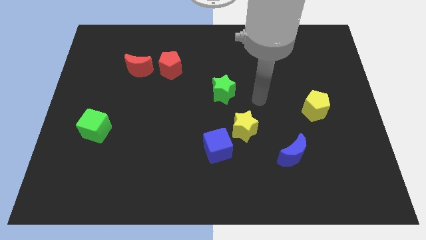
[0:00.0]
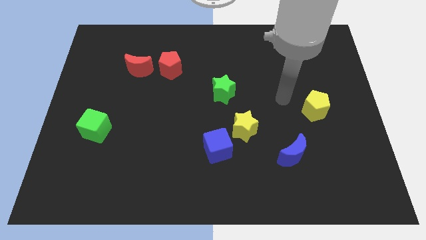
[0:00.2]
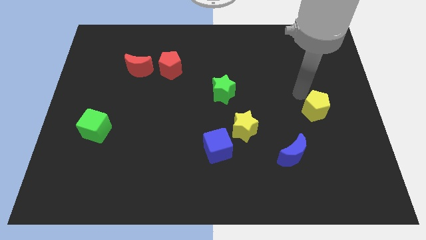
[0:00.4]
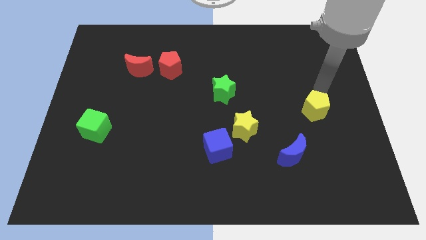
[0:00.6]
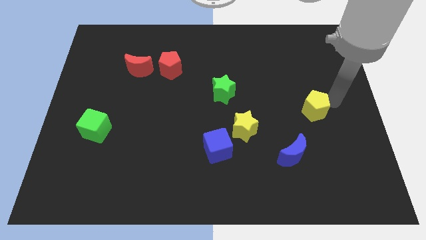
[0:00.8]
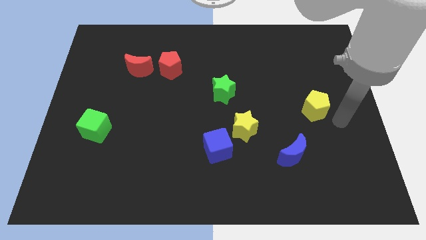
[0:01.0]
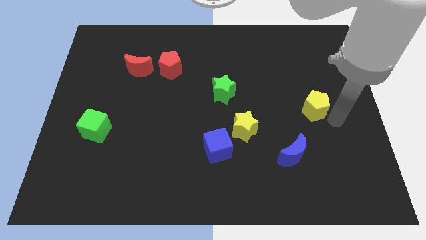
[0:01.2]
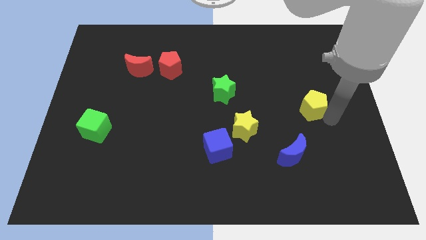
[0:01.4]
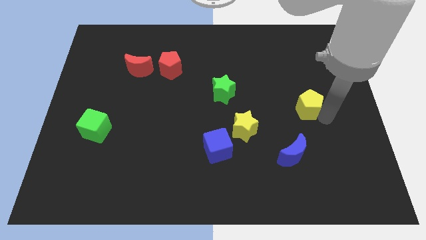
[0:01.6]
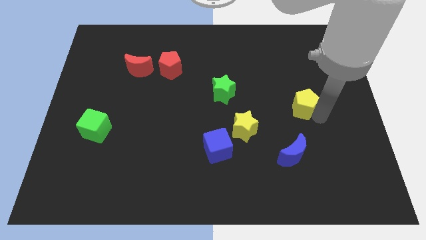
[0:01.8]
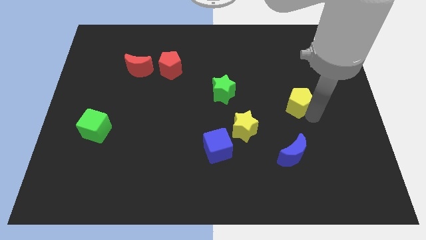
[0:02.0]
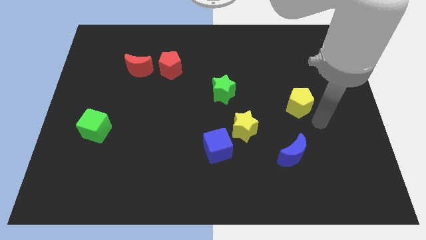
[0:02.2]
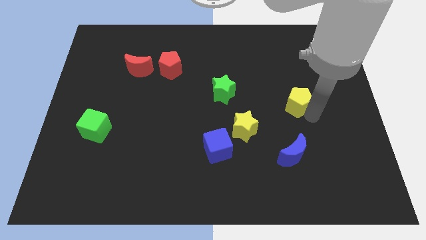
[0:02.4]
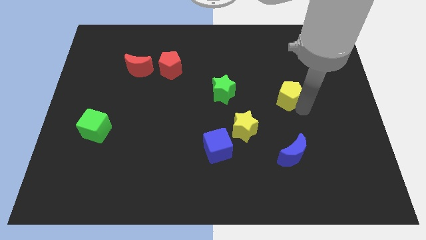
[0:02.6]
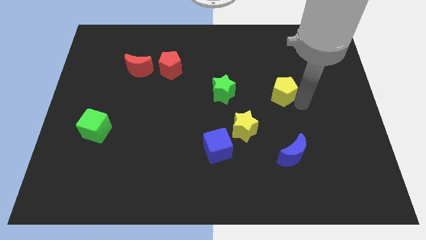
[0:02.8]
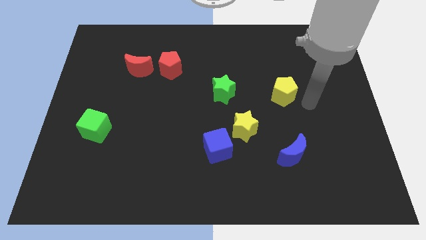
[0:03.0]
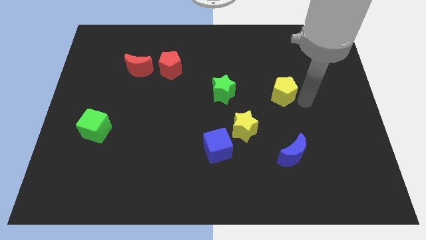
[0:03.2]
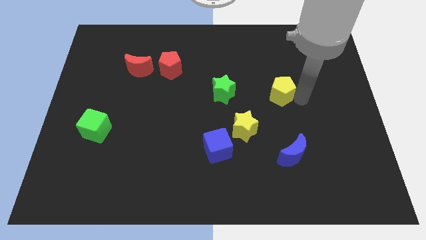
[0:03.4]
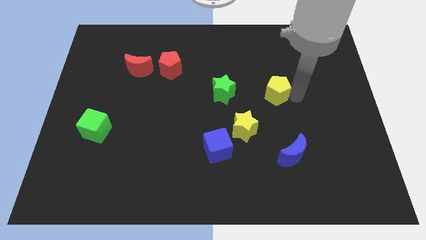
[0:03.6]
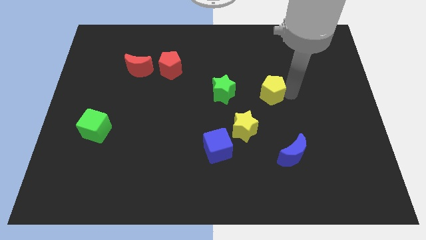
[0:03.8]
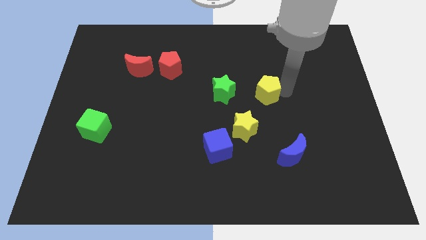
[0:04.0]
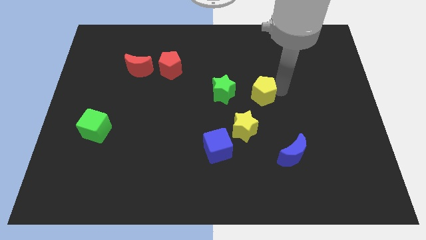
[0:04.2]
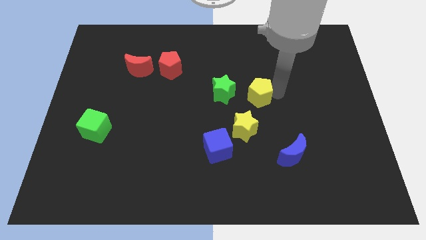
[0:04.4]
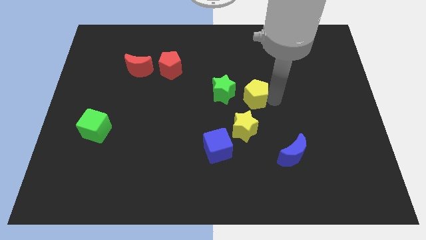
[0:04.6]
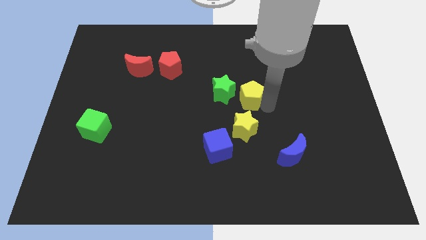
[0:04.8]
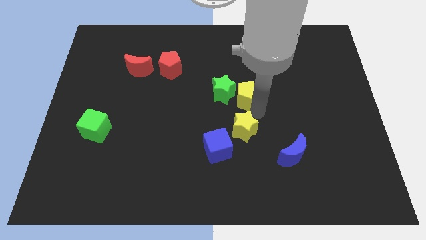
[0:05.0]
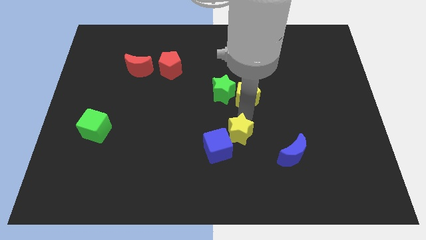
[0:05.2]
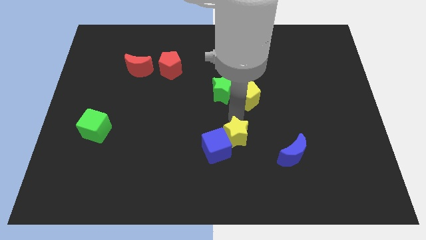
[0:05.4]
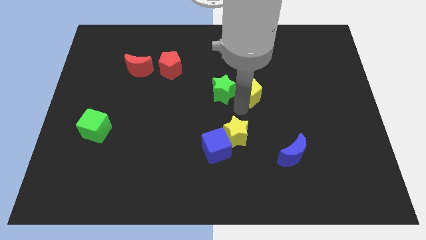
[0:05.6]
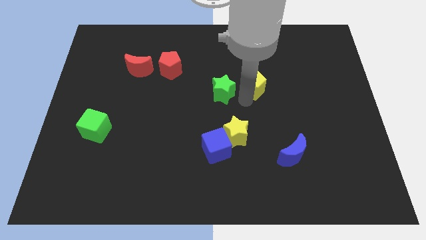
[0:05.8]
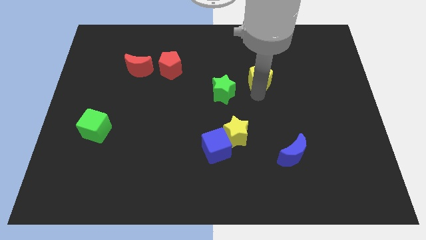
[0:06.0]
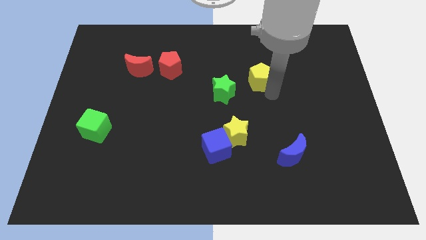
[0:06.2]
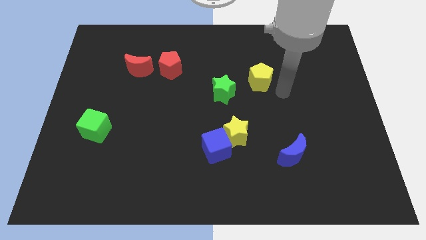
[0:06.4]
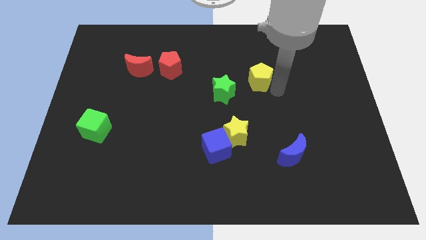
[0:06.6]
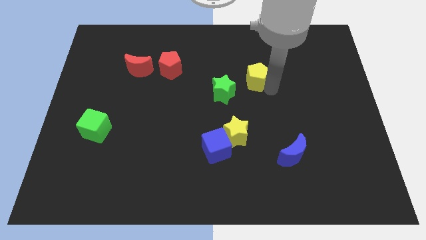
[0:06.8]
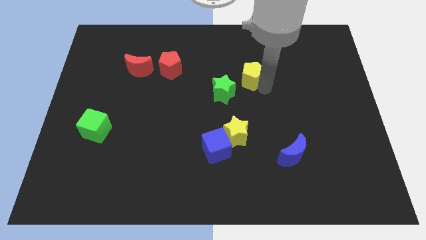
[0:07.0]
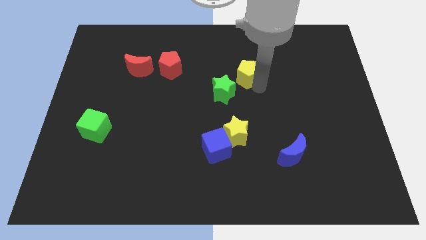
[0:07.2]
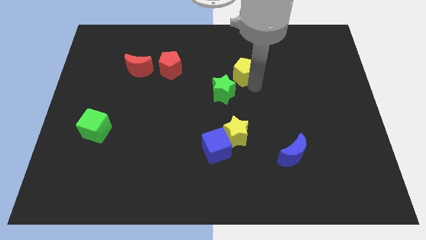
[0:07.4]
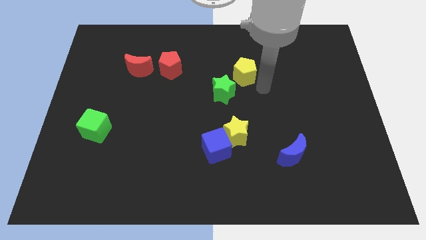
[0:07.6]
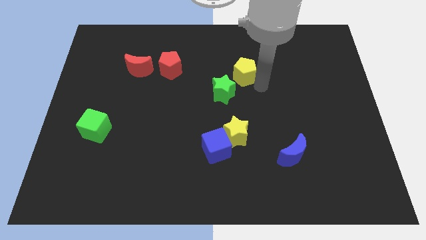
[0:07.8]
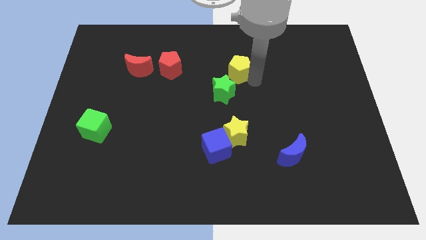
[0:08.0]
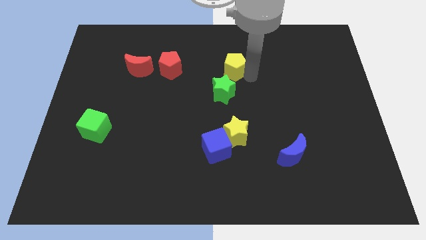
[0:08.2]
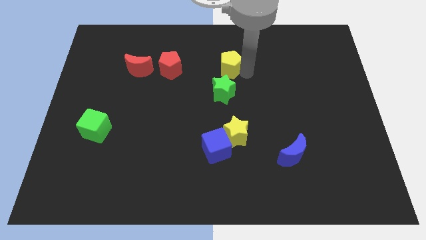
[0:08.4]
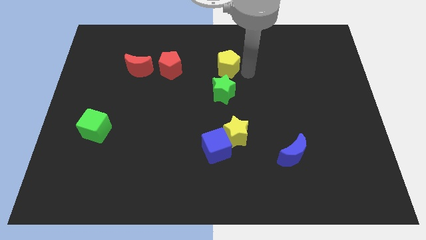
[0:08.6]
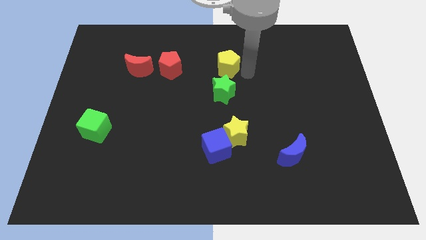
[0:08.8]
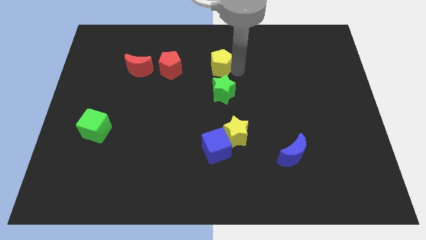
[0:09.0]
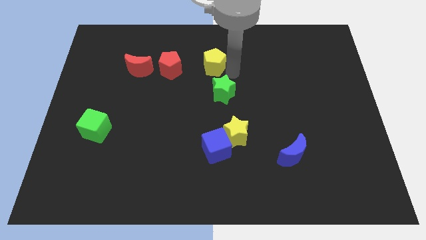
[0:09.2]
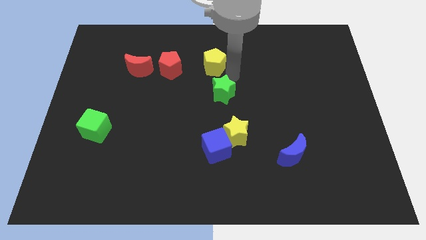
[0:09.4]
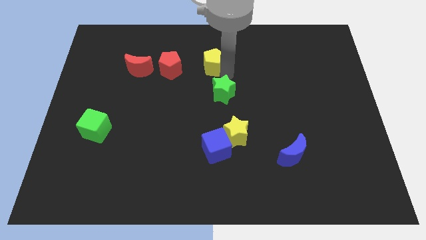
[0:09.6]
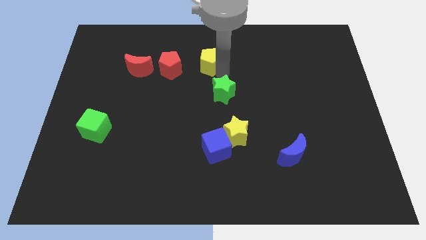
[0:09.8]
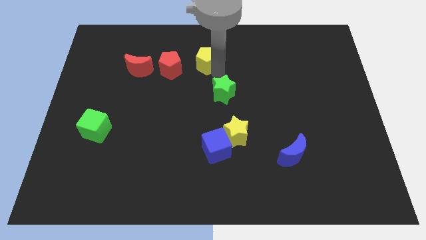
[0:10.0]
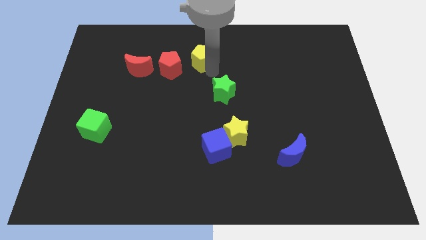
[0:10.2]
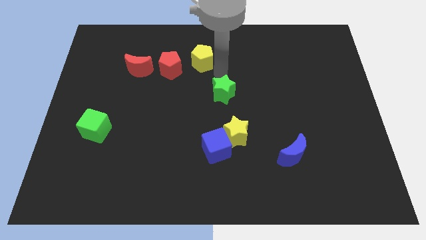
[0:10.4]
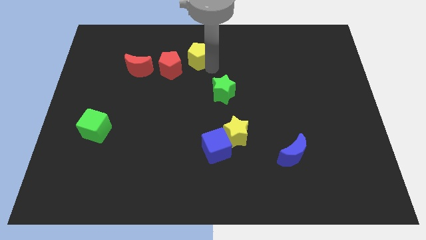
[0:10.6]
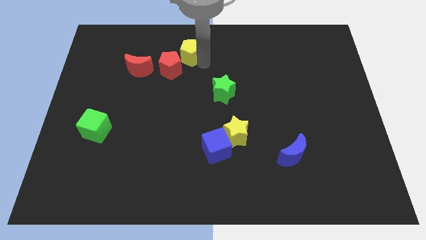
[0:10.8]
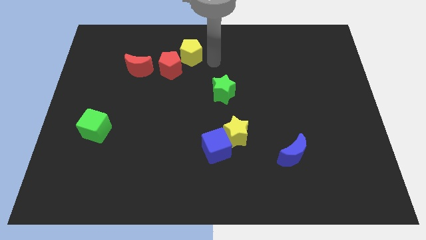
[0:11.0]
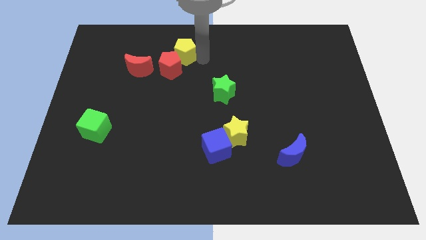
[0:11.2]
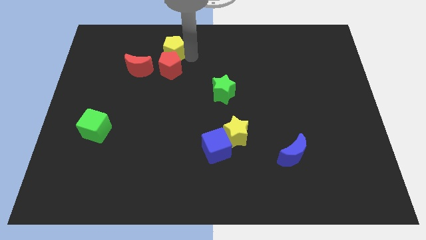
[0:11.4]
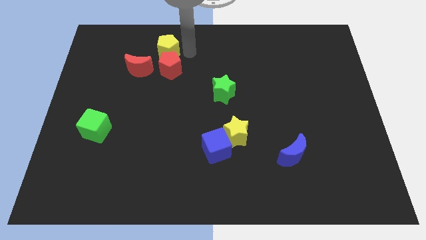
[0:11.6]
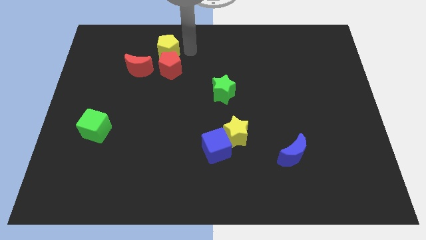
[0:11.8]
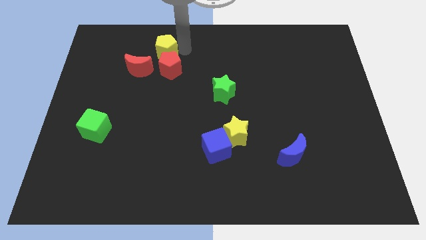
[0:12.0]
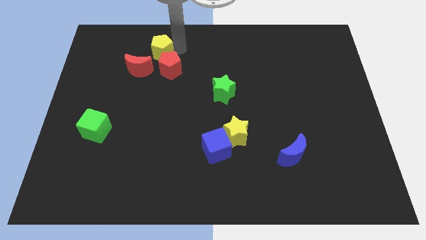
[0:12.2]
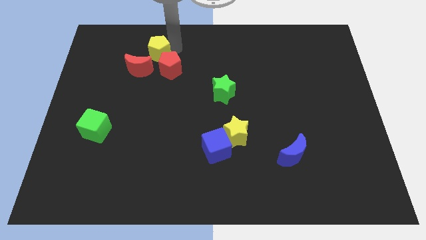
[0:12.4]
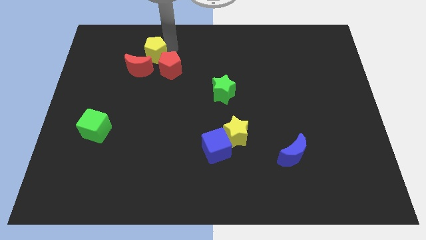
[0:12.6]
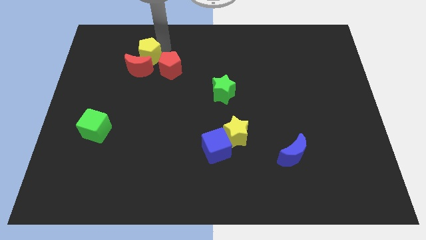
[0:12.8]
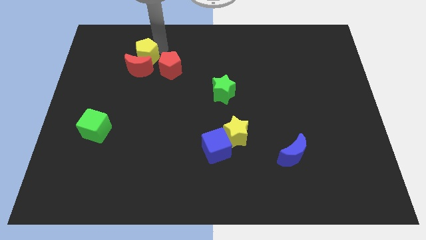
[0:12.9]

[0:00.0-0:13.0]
push the yellow pentagon diagonally up and to the left of the red moon

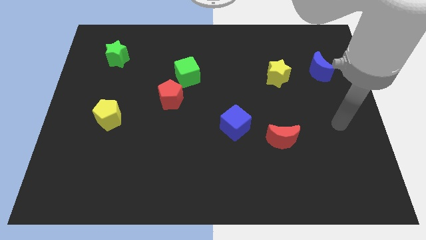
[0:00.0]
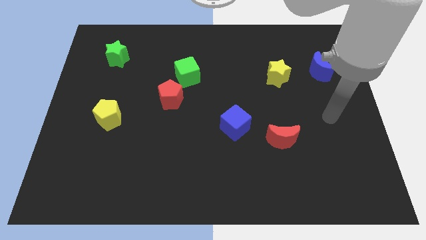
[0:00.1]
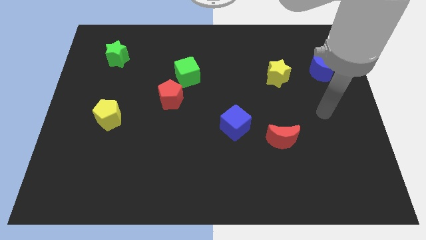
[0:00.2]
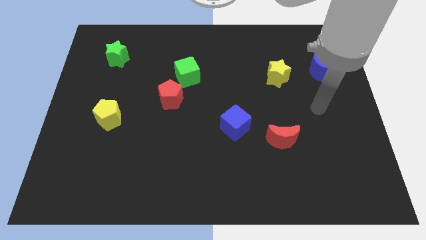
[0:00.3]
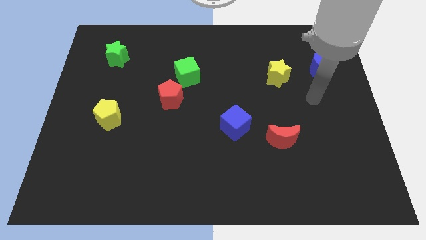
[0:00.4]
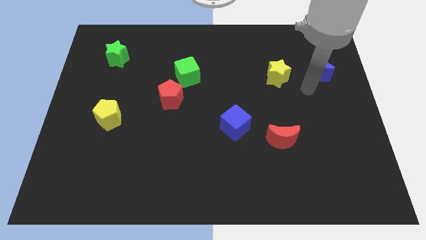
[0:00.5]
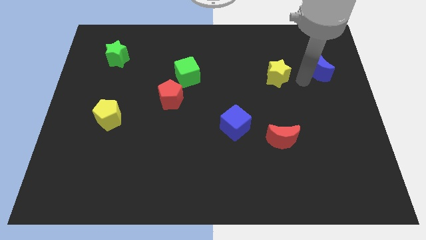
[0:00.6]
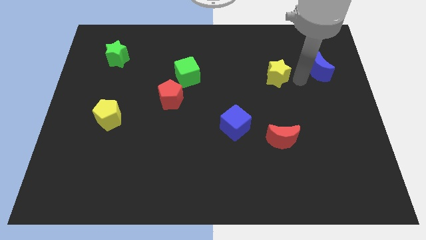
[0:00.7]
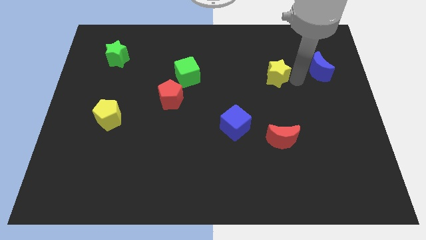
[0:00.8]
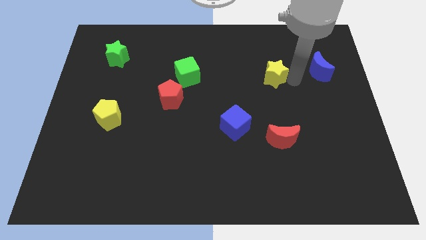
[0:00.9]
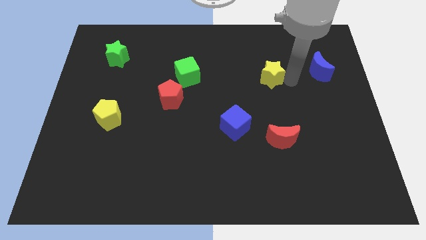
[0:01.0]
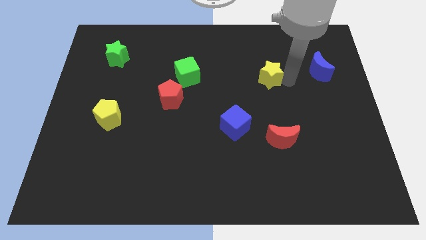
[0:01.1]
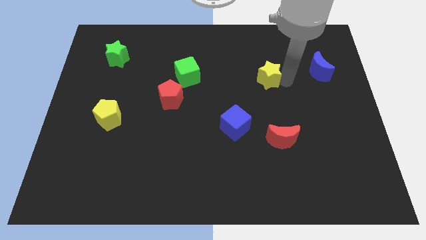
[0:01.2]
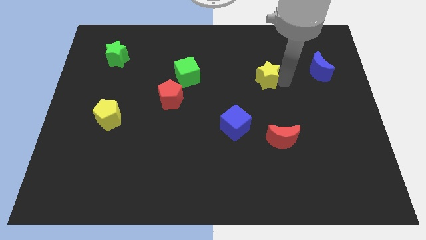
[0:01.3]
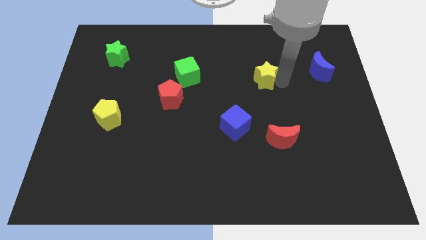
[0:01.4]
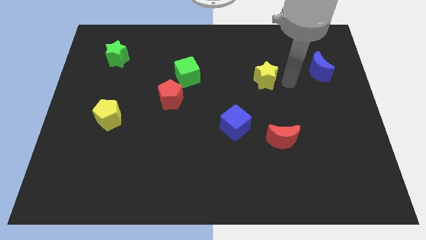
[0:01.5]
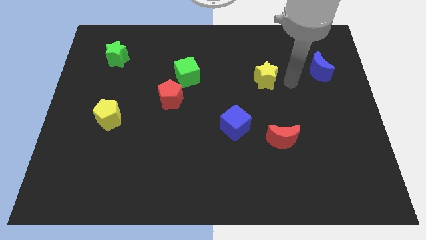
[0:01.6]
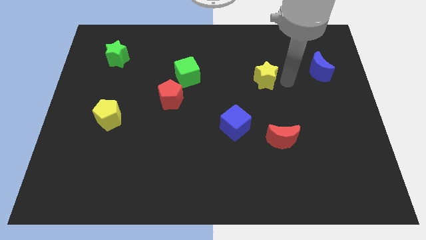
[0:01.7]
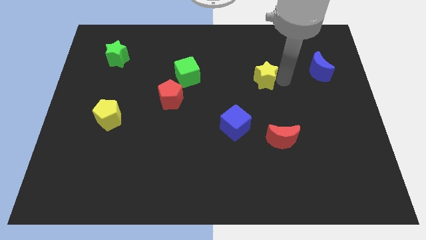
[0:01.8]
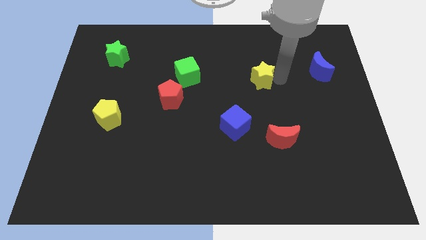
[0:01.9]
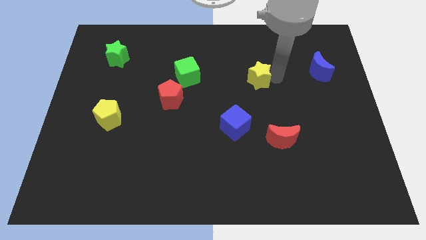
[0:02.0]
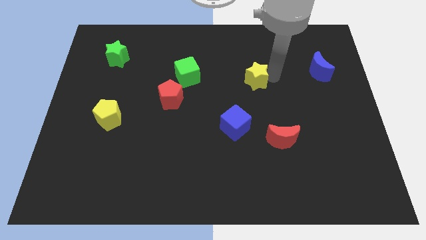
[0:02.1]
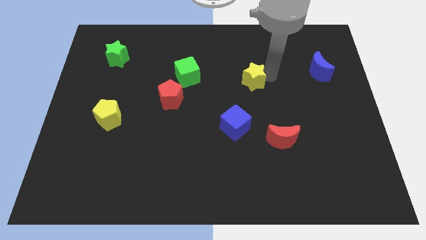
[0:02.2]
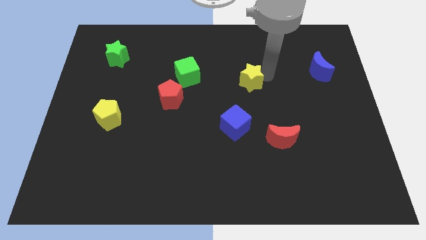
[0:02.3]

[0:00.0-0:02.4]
put the yellow star just right of the green cube
